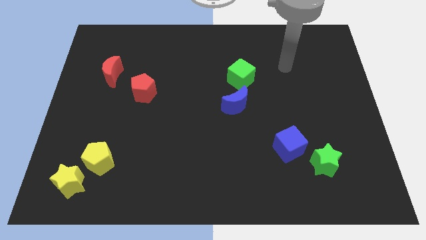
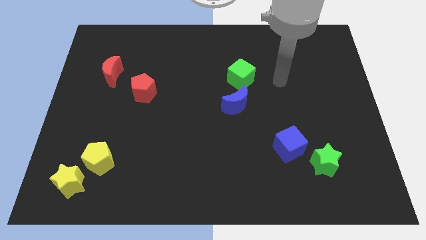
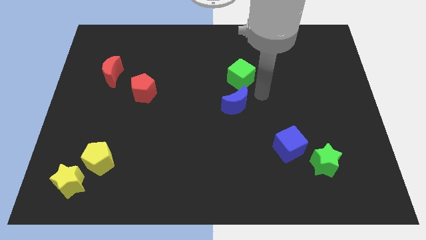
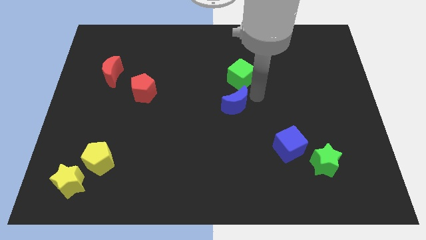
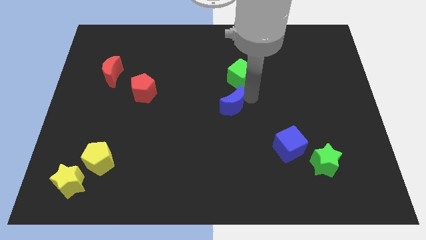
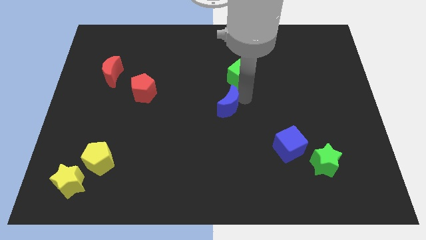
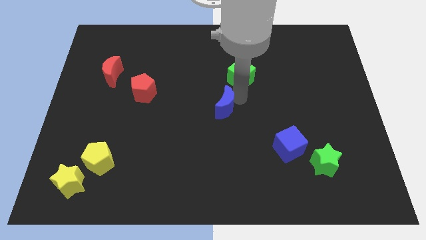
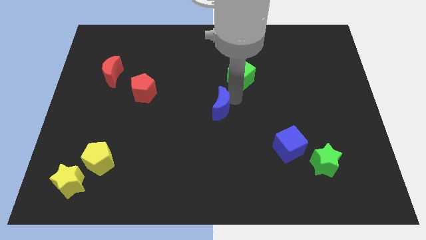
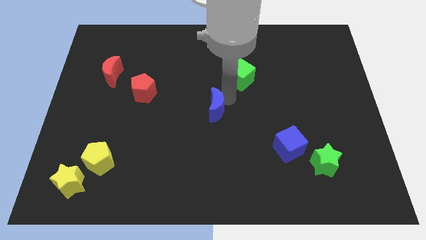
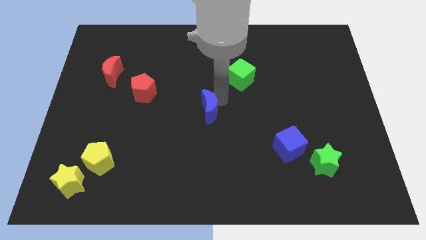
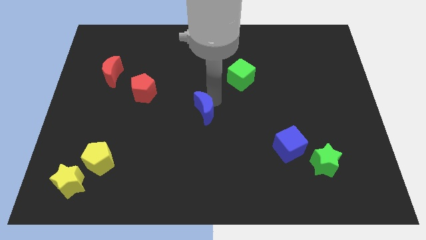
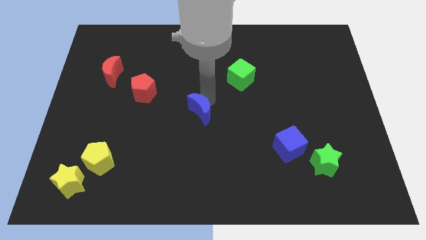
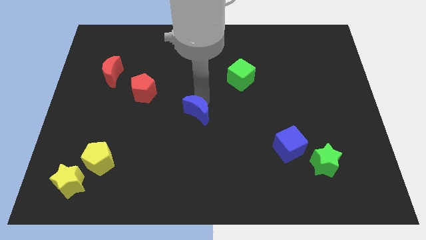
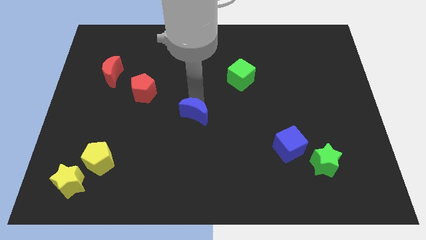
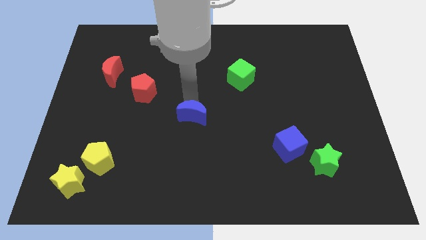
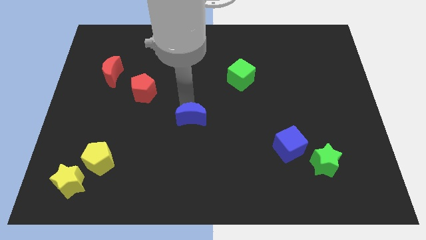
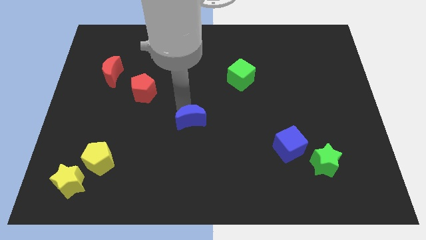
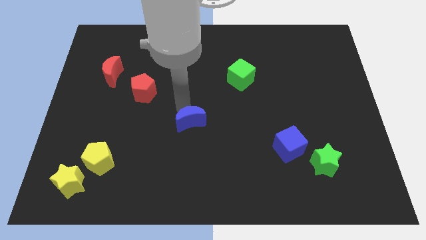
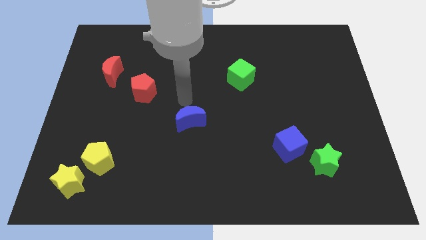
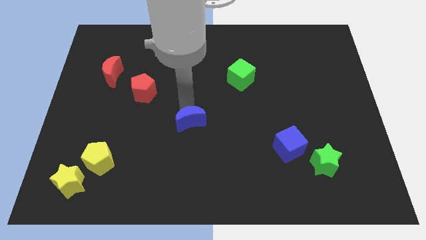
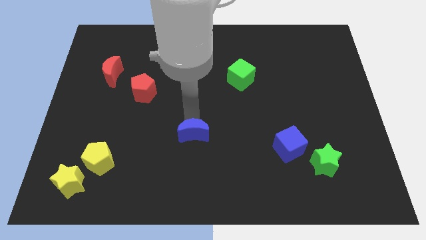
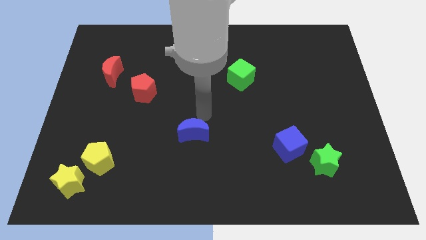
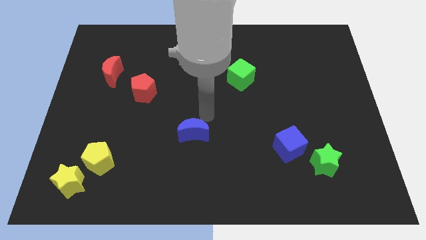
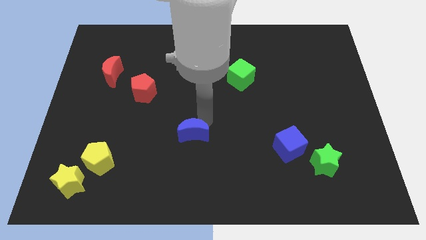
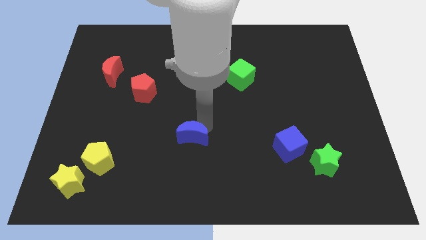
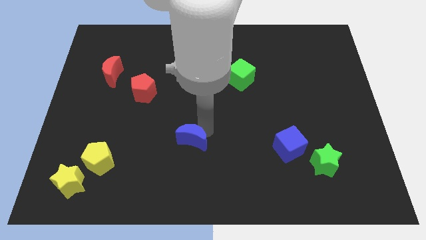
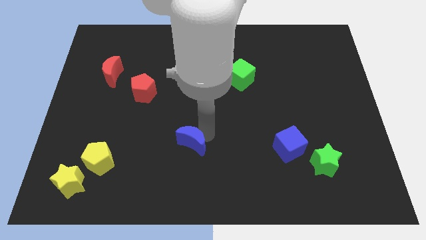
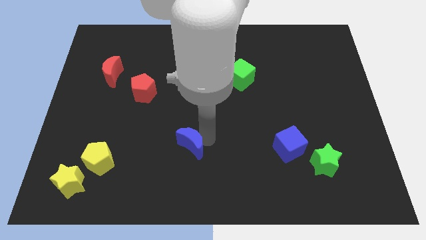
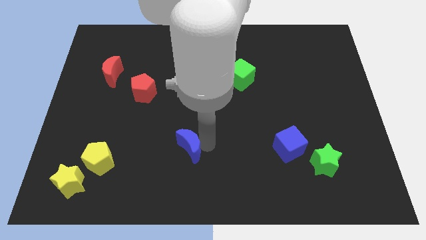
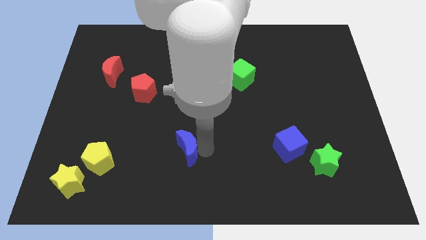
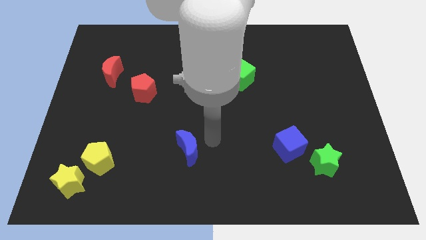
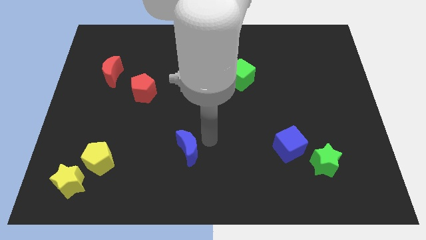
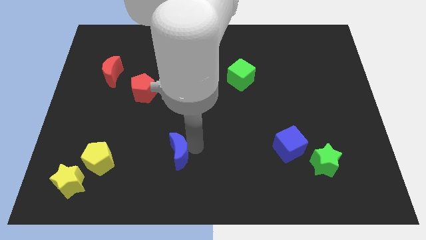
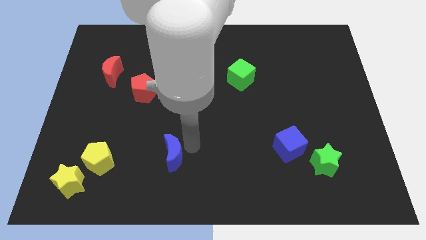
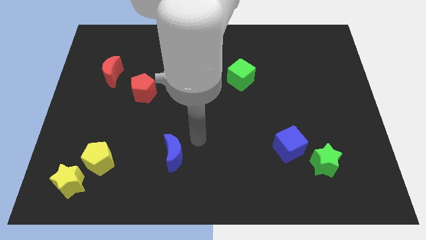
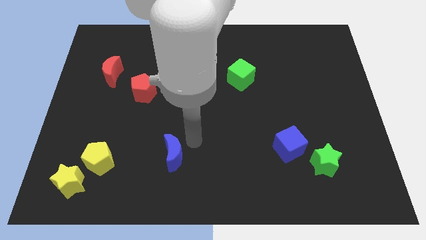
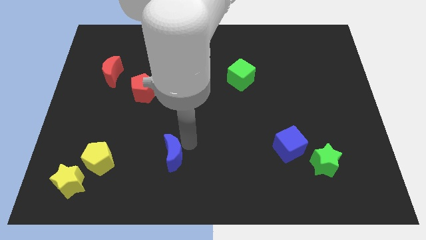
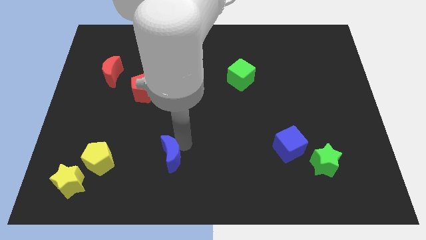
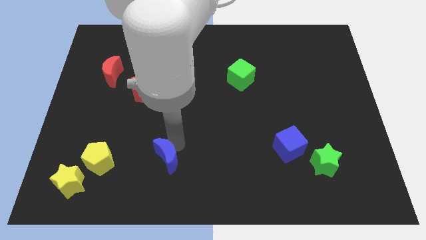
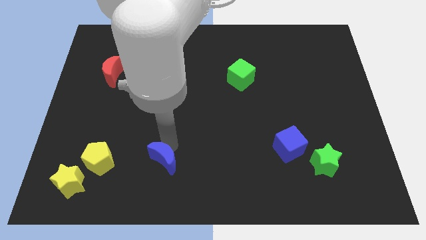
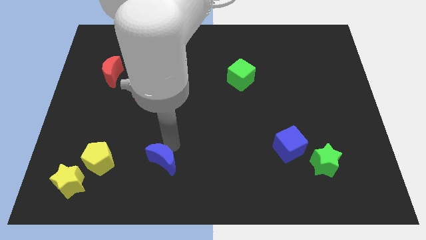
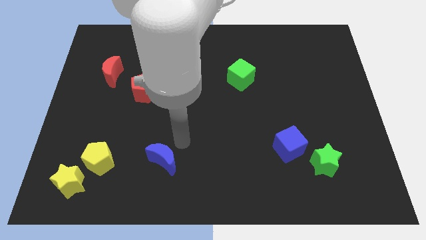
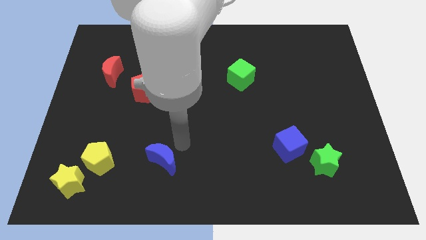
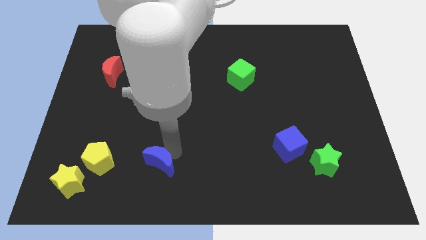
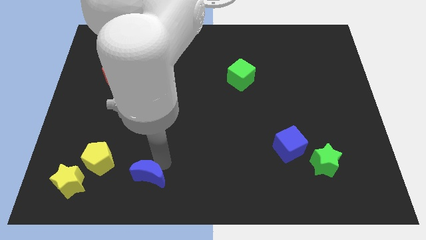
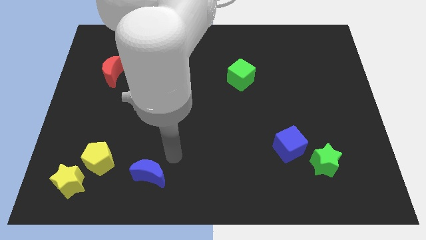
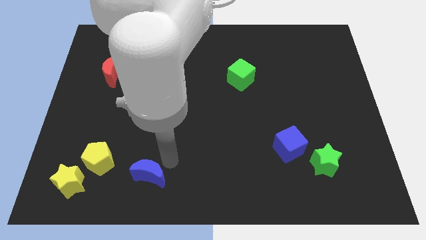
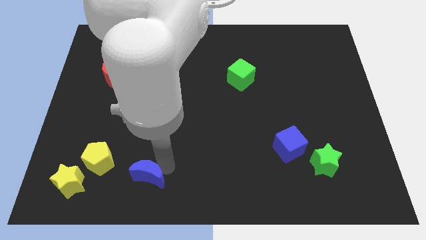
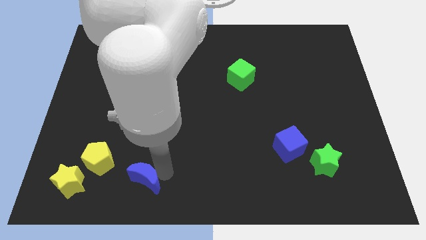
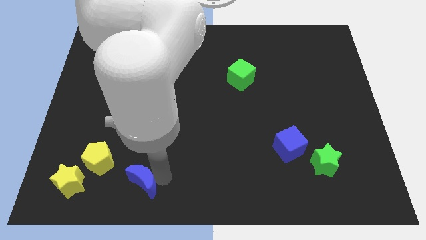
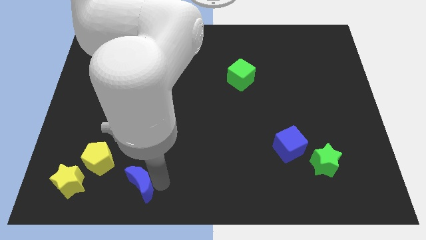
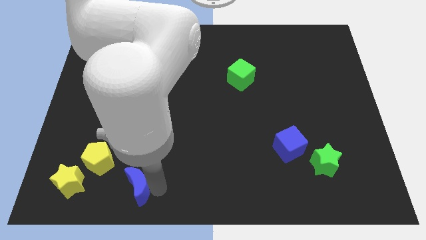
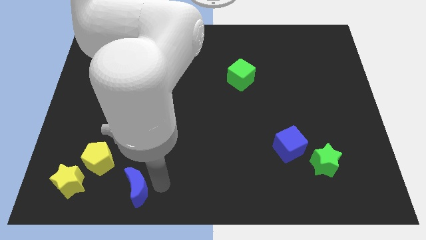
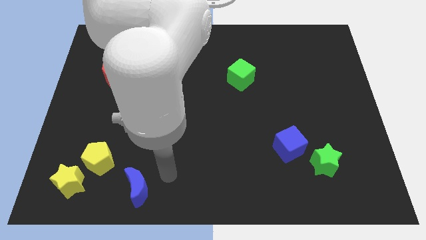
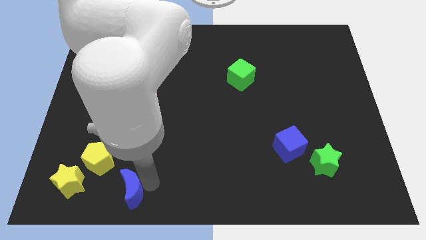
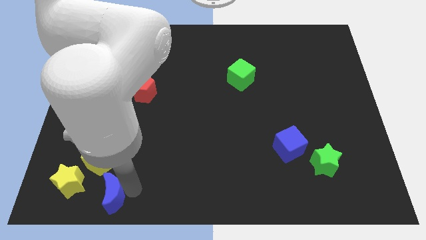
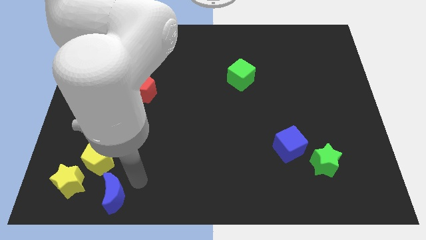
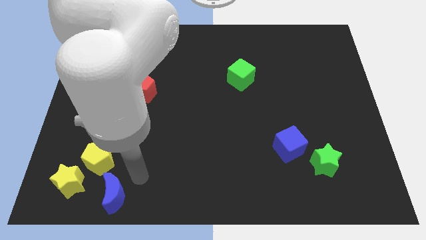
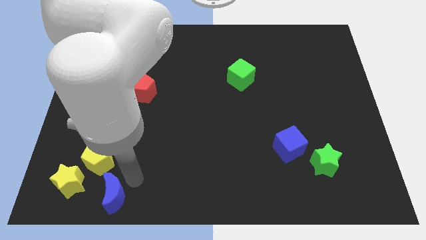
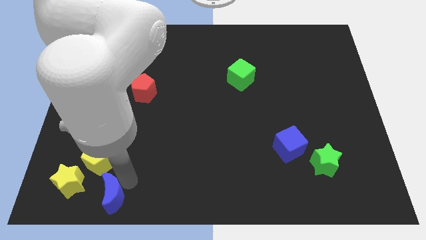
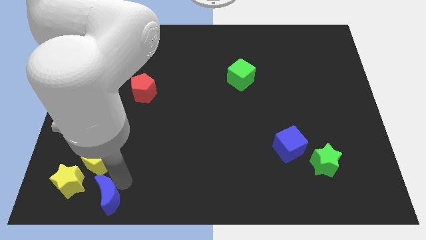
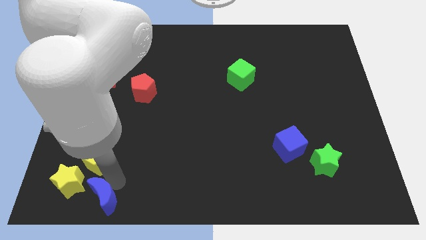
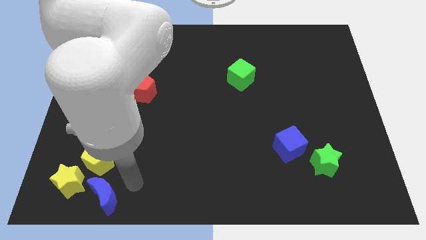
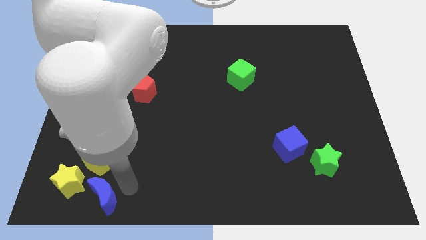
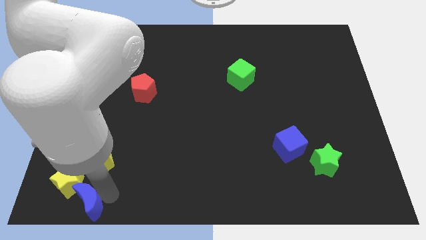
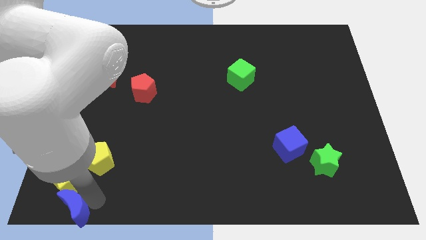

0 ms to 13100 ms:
move the blue moon to the lower left corner

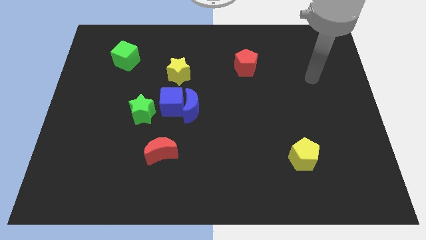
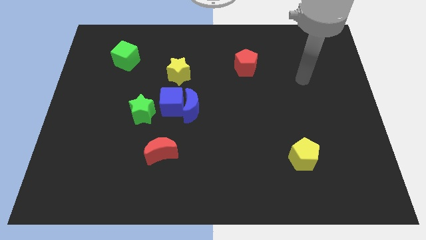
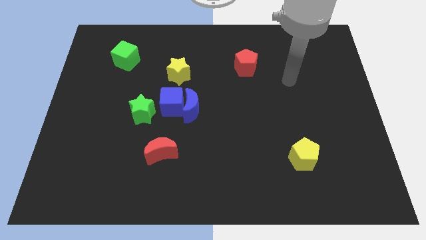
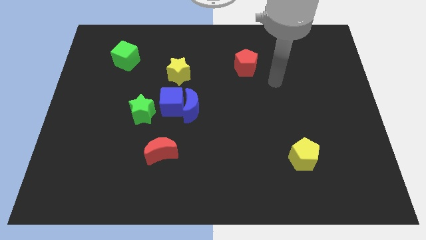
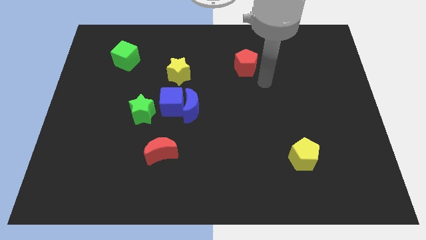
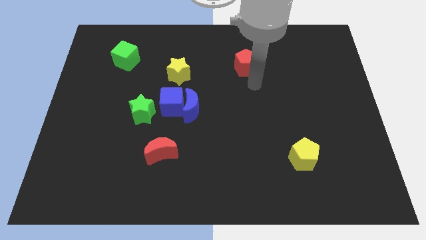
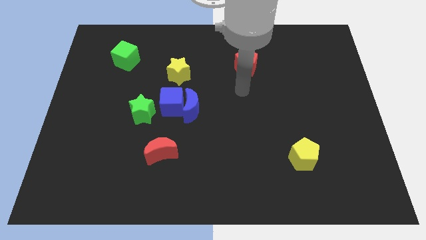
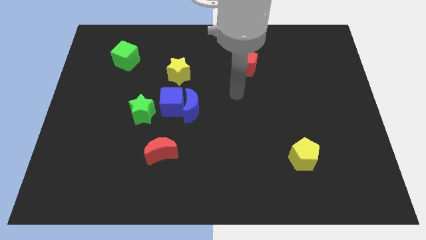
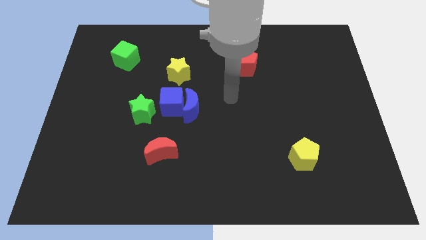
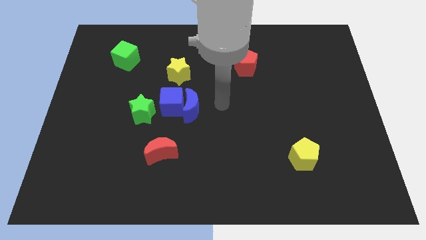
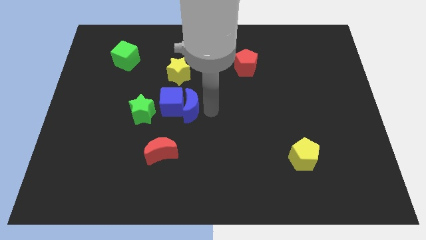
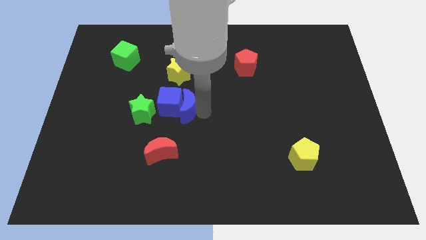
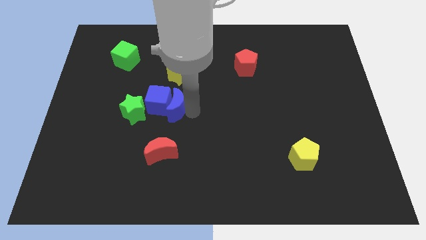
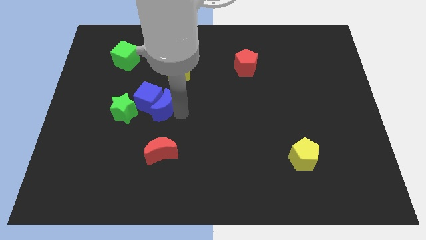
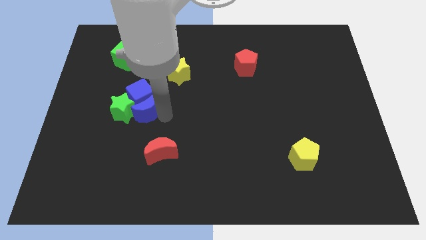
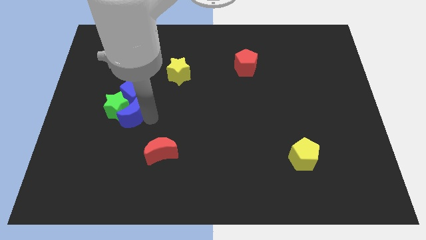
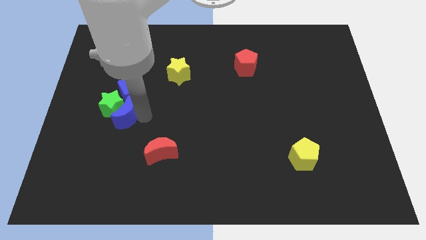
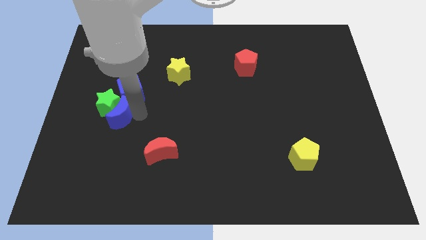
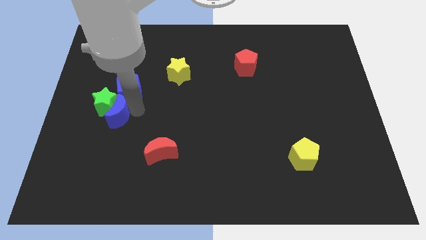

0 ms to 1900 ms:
put the green star to the left side of the board
